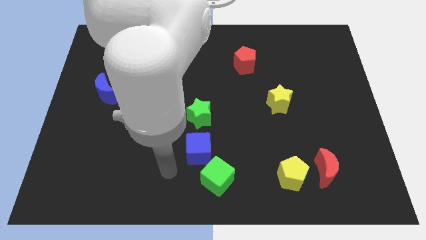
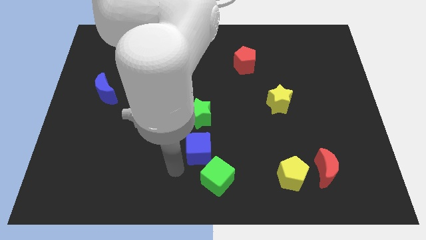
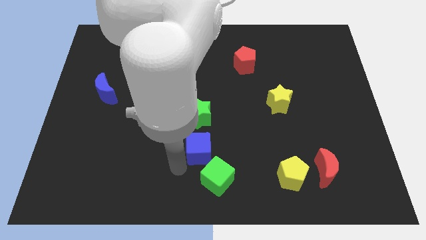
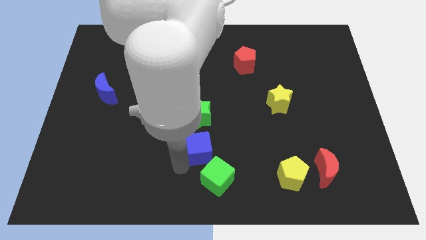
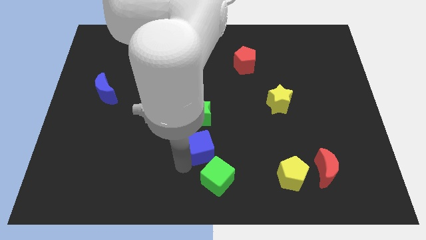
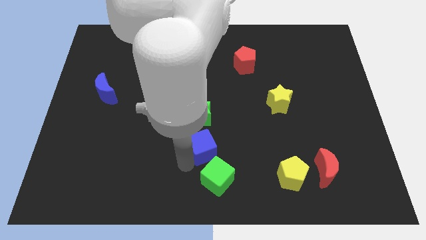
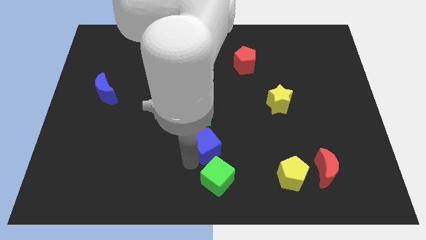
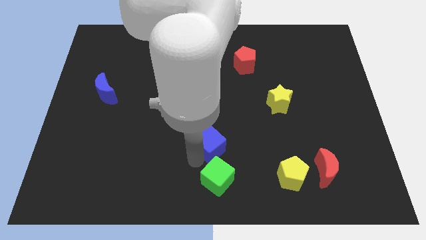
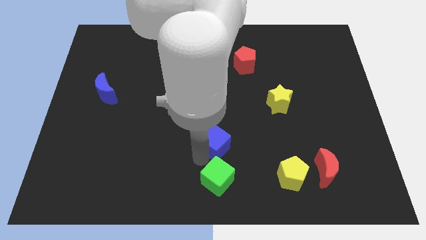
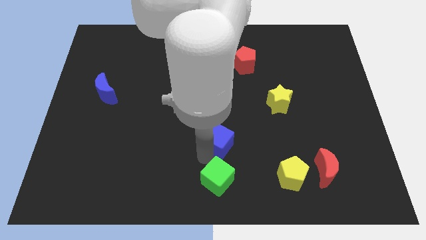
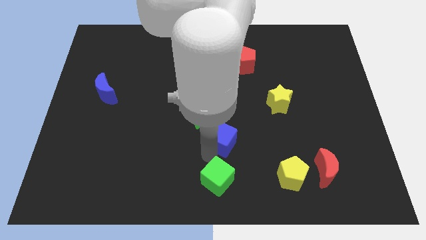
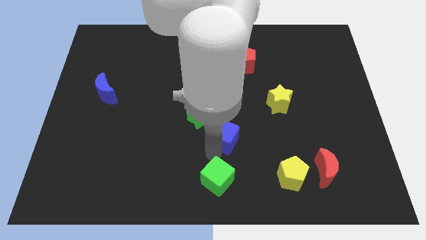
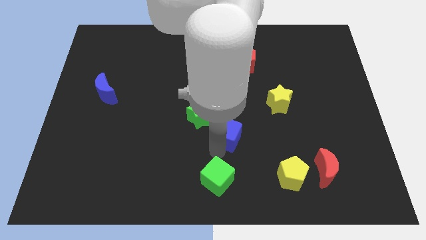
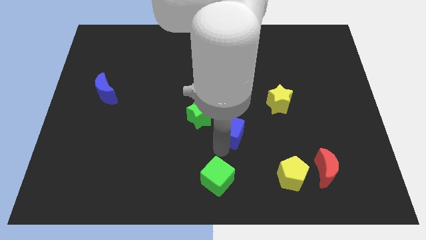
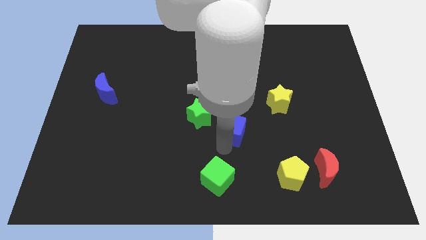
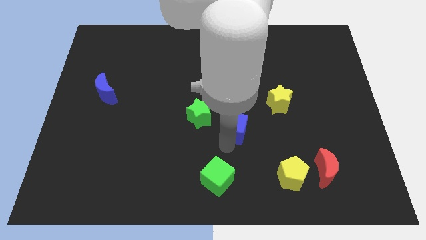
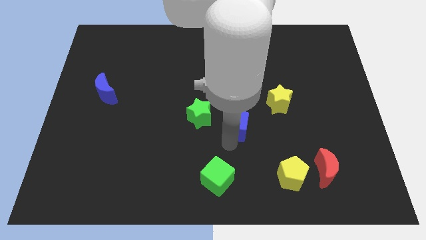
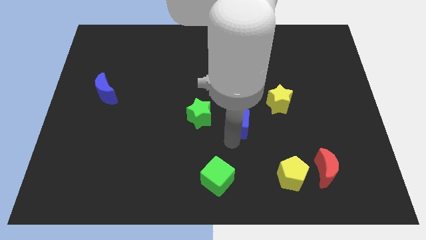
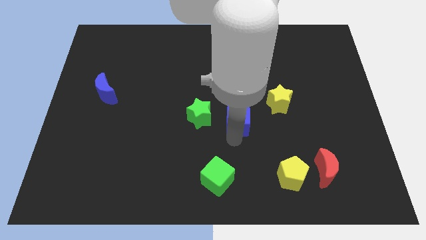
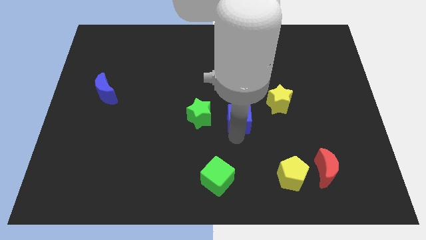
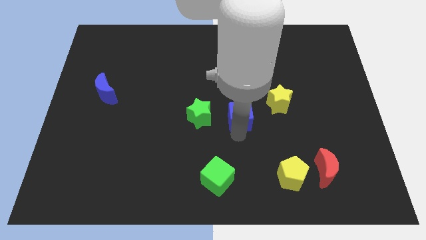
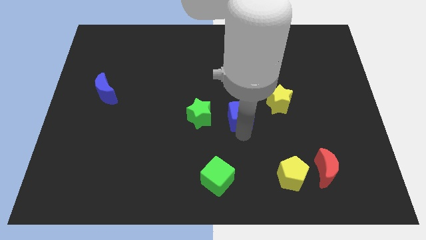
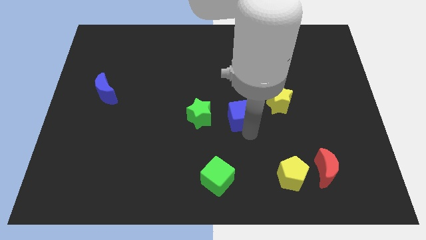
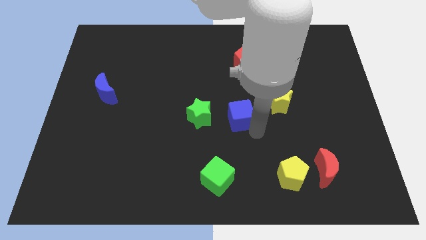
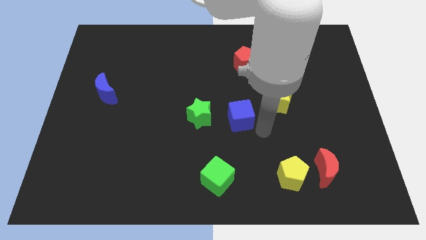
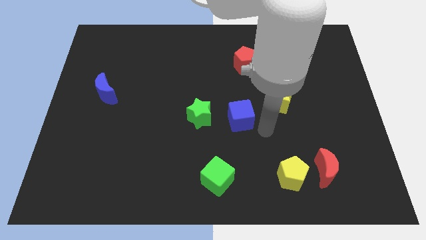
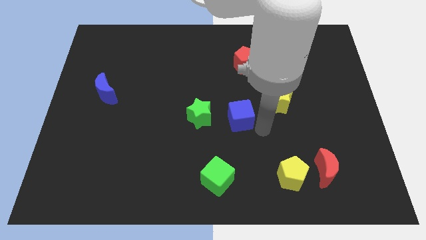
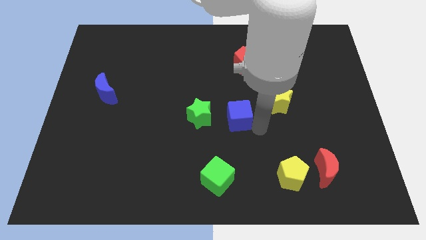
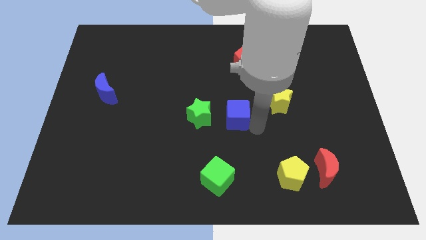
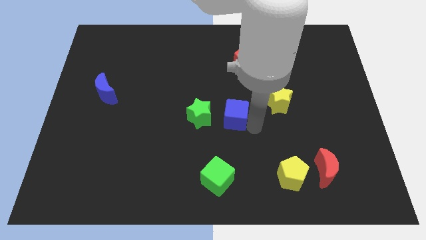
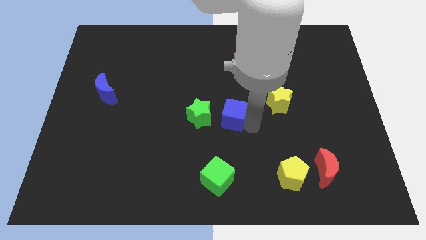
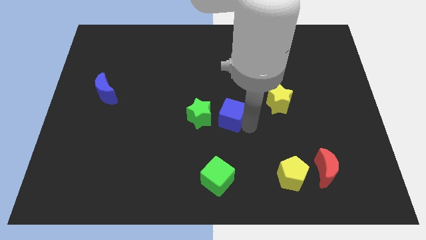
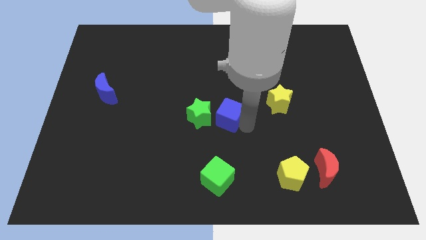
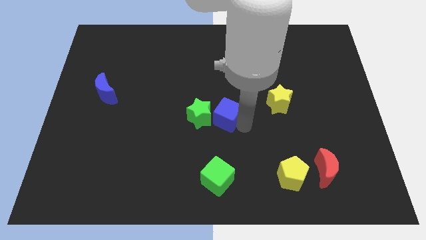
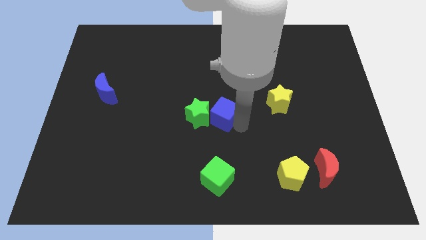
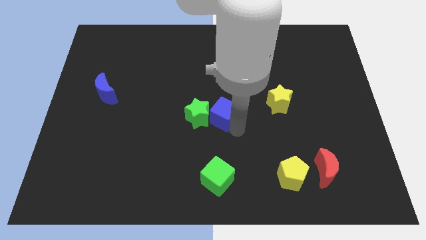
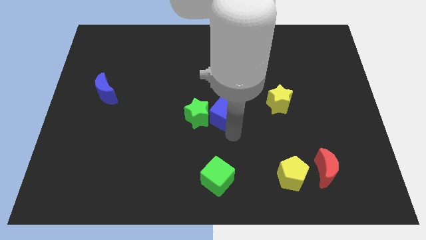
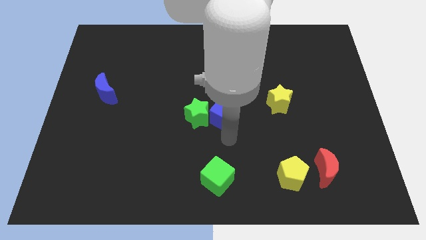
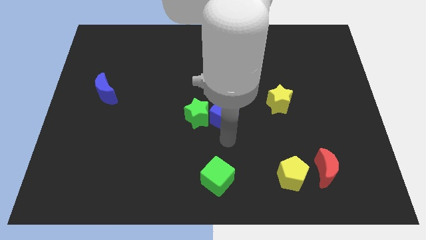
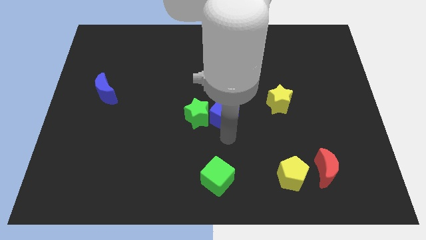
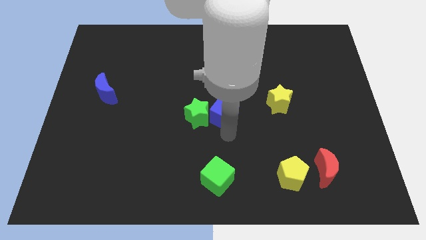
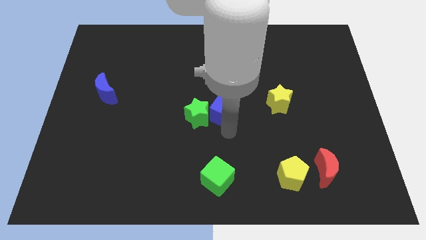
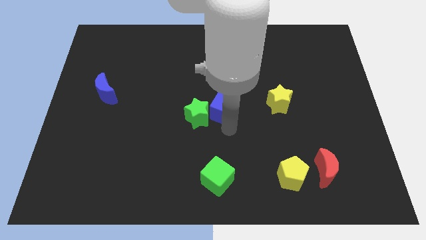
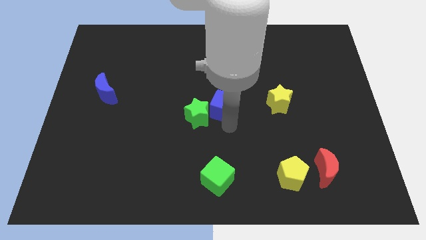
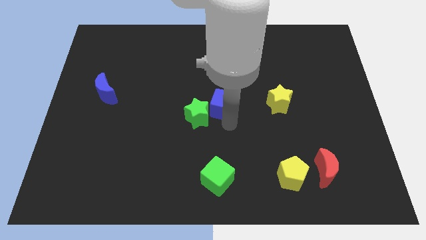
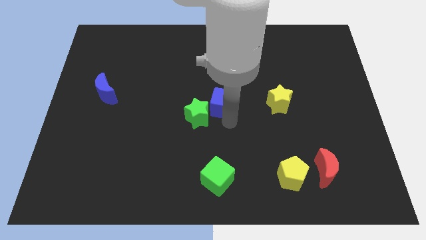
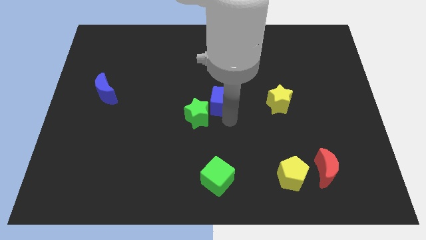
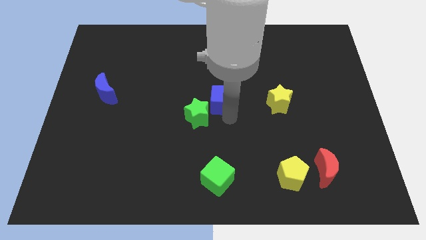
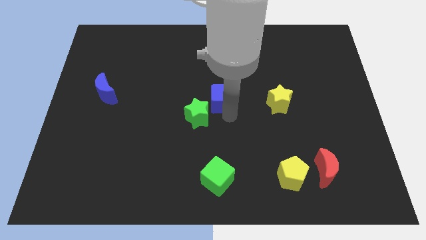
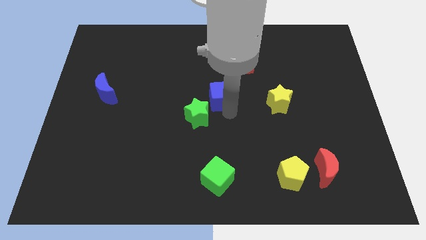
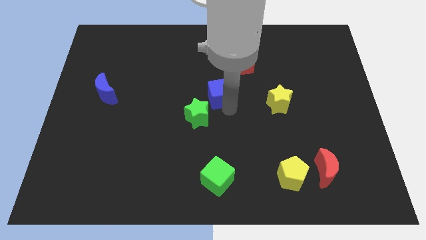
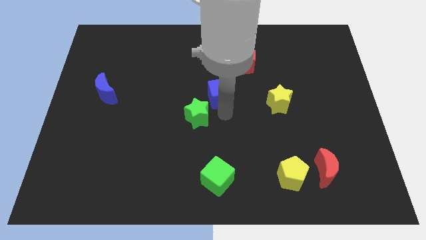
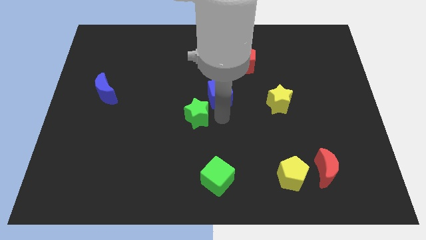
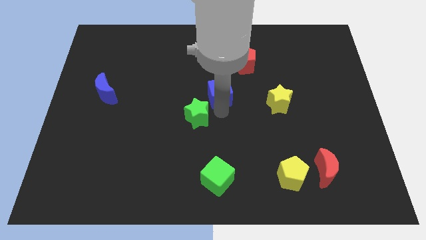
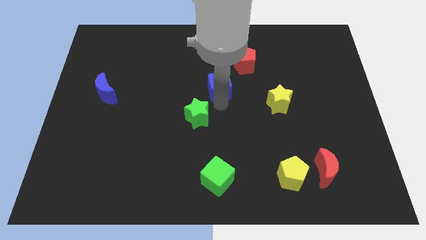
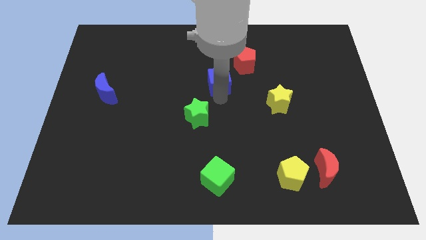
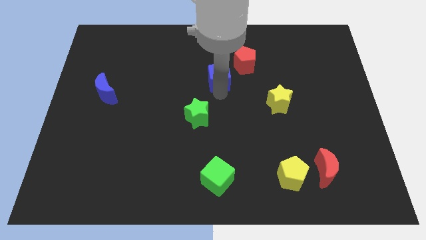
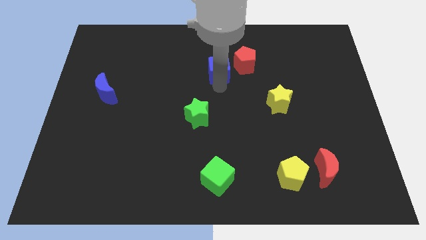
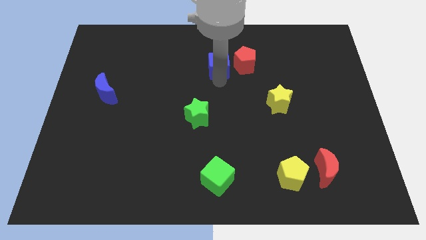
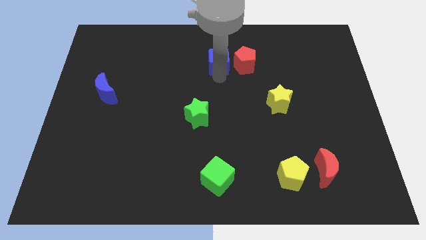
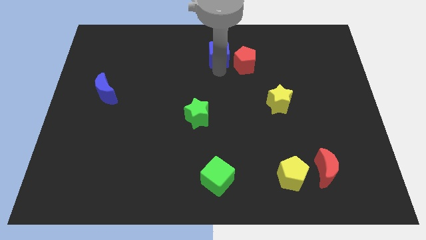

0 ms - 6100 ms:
slide the blue cube to the towards your base
